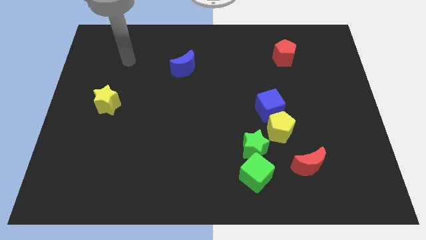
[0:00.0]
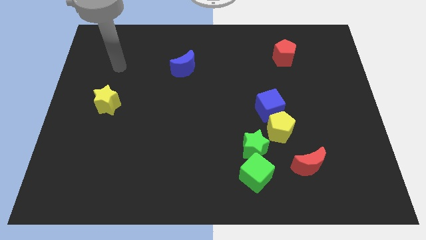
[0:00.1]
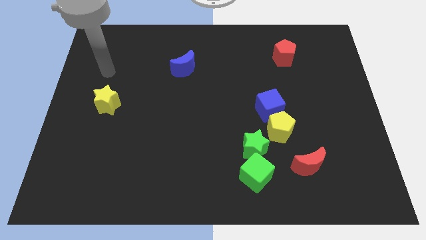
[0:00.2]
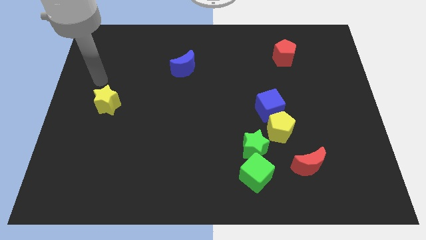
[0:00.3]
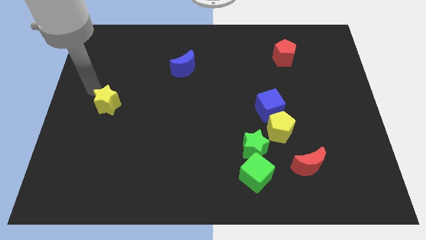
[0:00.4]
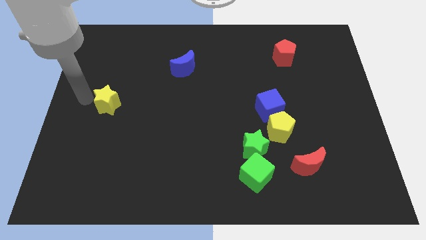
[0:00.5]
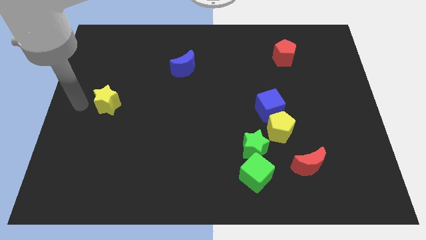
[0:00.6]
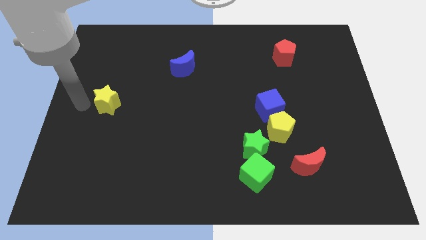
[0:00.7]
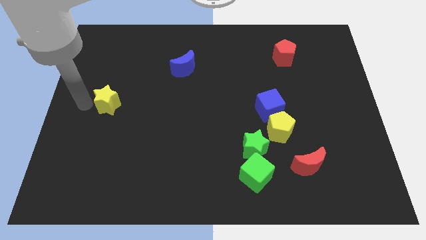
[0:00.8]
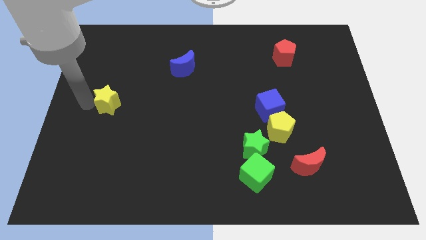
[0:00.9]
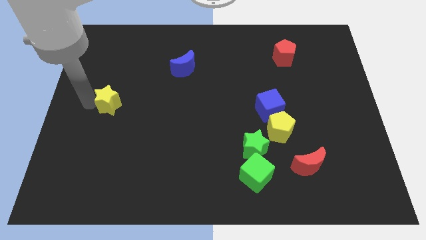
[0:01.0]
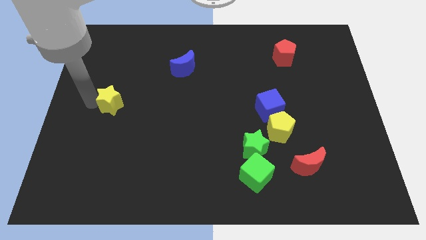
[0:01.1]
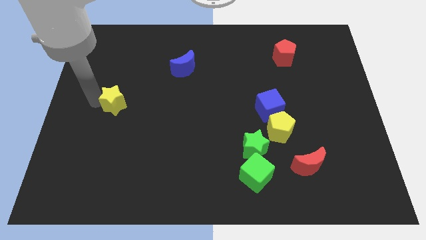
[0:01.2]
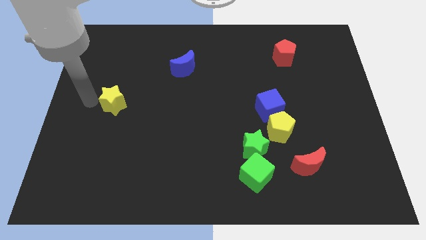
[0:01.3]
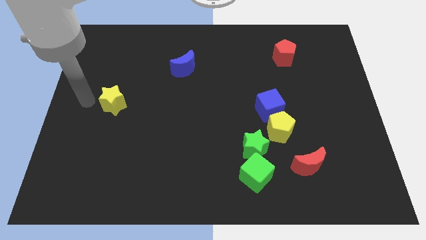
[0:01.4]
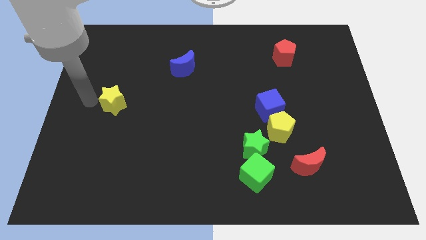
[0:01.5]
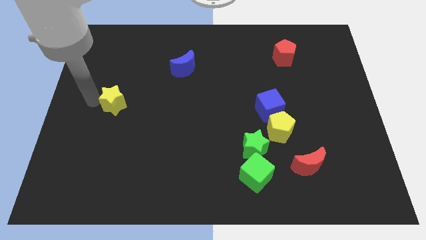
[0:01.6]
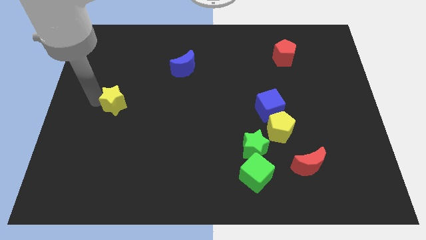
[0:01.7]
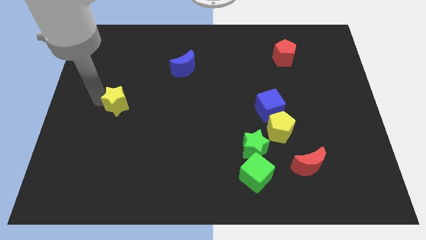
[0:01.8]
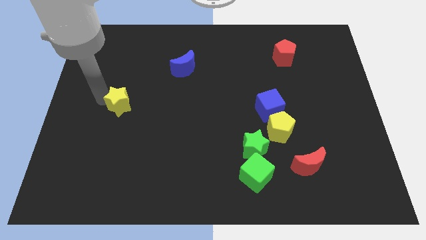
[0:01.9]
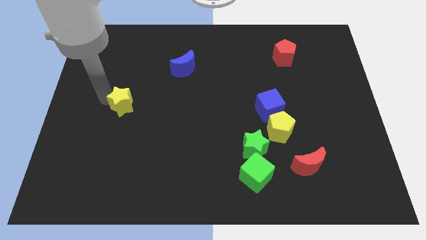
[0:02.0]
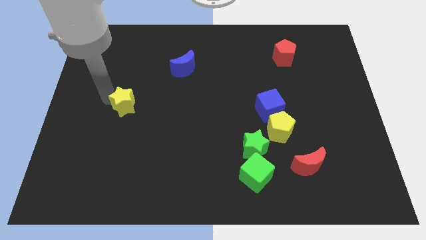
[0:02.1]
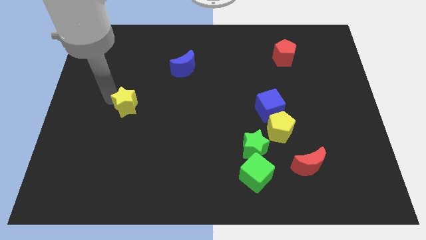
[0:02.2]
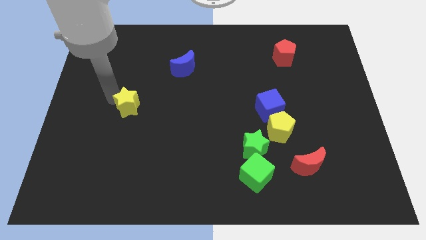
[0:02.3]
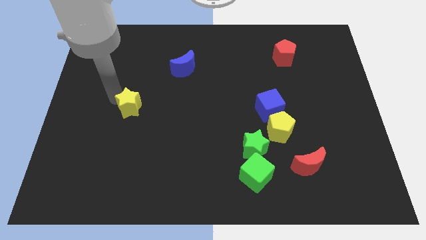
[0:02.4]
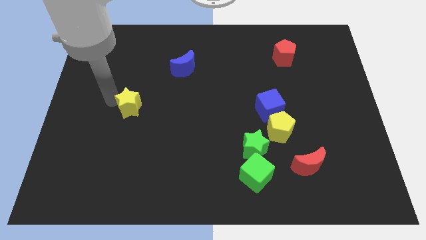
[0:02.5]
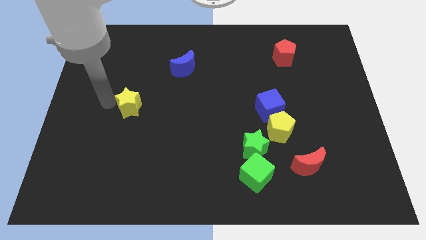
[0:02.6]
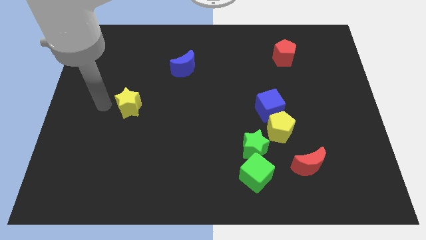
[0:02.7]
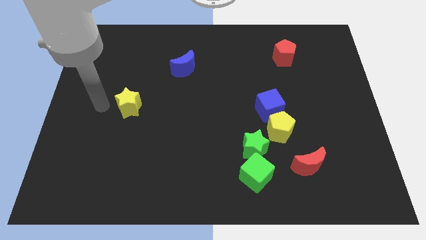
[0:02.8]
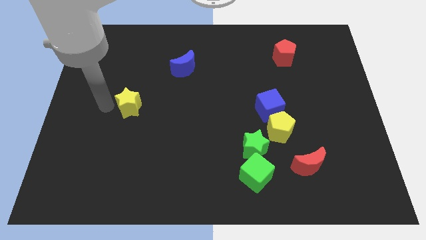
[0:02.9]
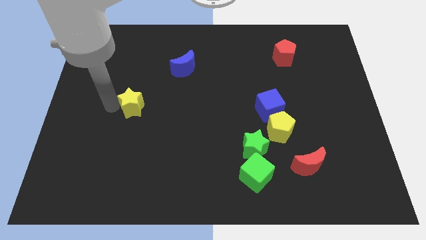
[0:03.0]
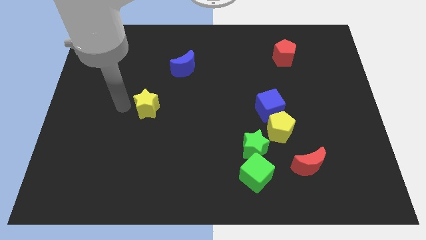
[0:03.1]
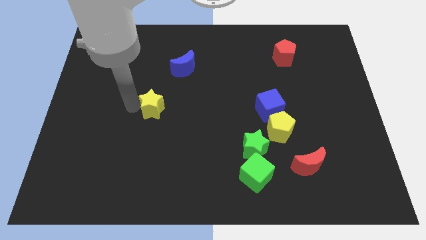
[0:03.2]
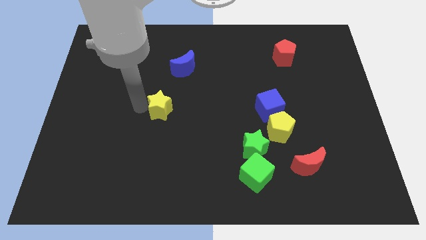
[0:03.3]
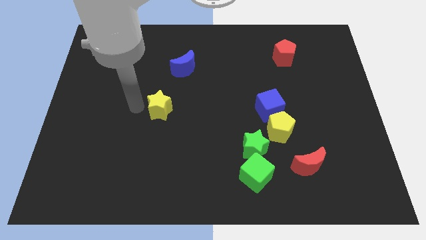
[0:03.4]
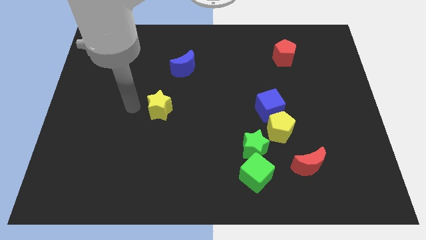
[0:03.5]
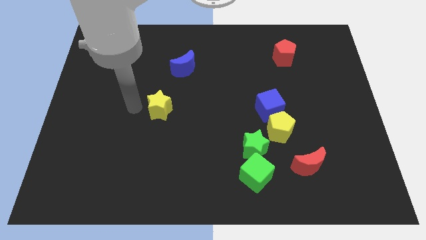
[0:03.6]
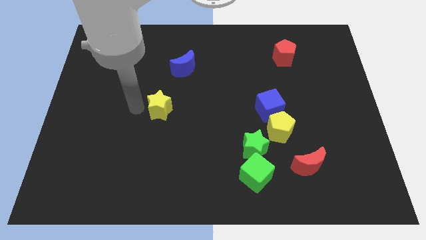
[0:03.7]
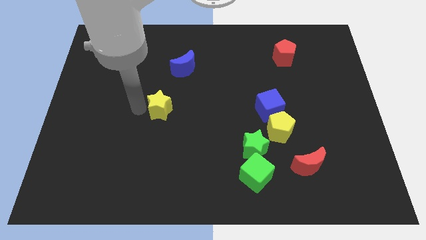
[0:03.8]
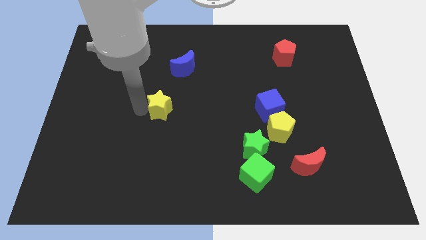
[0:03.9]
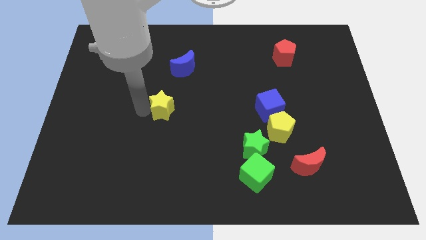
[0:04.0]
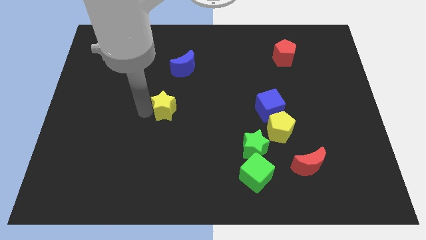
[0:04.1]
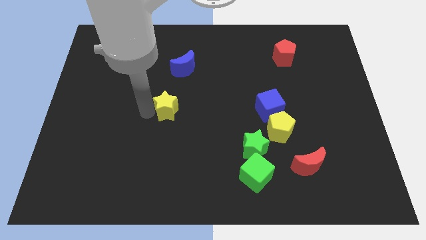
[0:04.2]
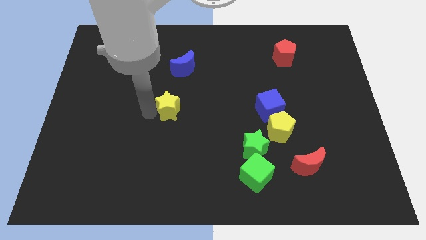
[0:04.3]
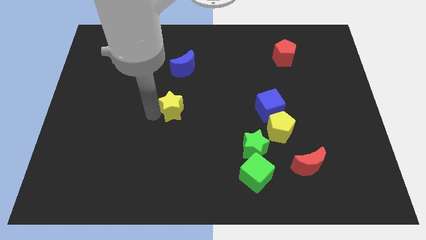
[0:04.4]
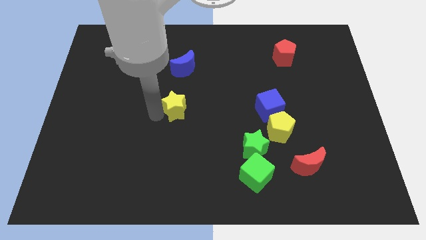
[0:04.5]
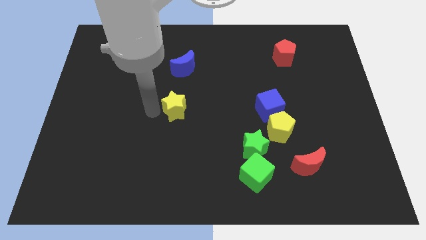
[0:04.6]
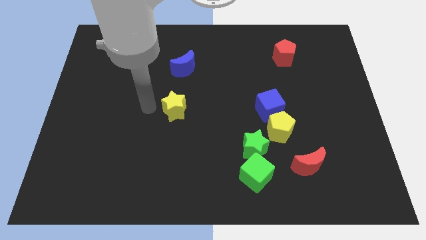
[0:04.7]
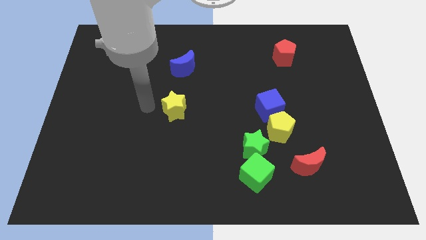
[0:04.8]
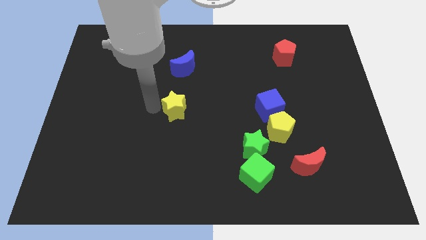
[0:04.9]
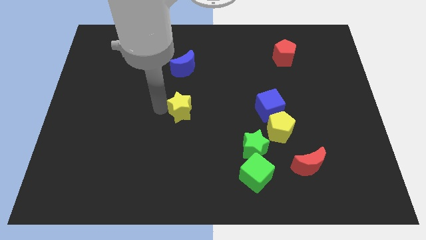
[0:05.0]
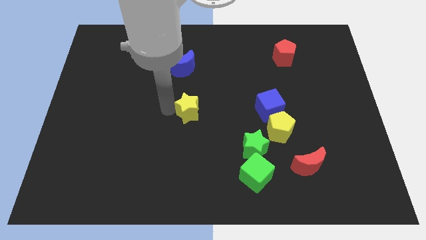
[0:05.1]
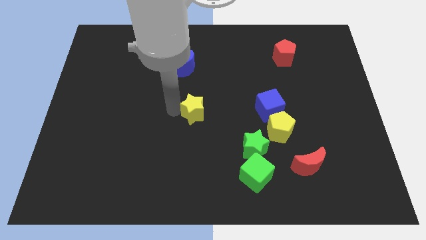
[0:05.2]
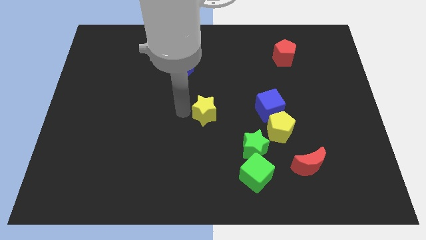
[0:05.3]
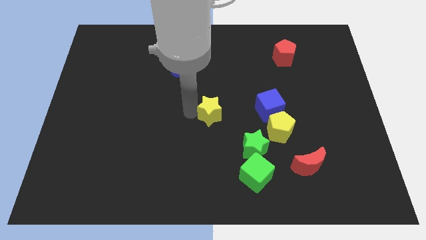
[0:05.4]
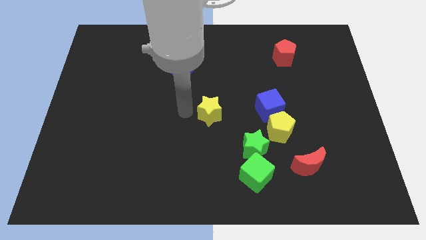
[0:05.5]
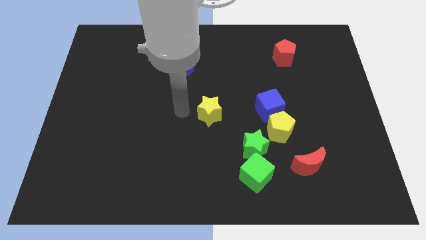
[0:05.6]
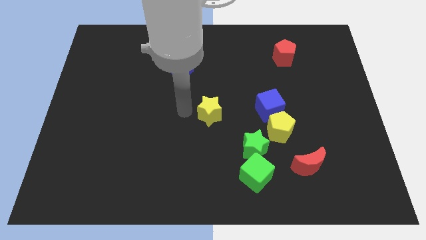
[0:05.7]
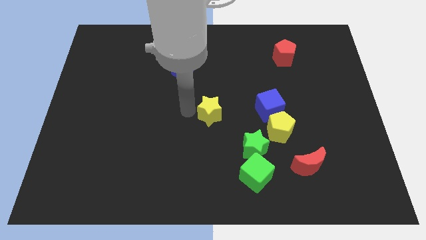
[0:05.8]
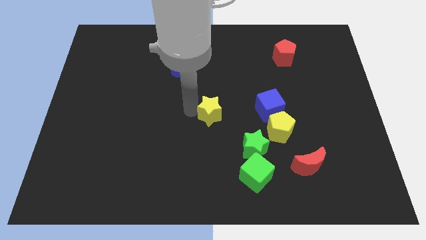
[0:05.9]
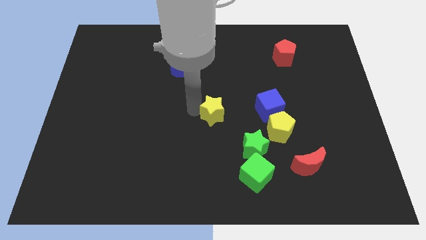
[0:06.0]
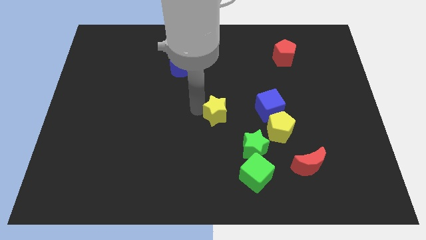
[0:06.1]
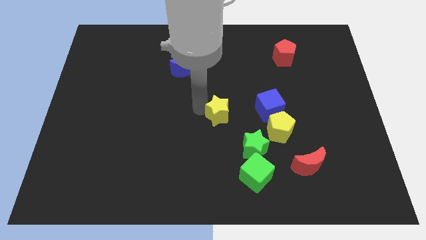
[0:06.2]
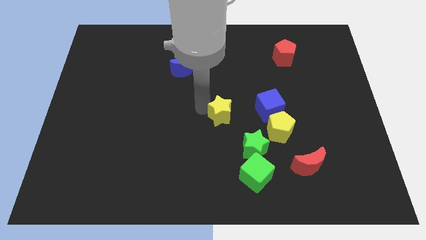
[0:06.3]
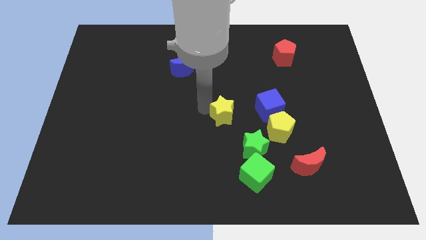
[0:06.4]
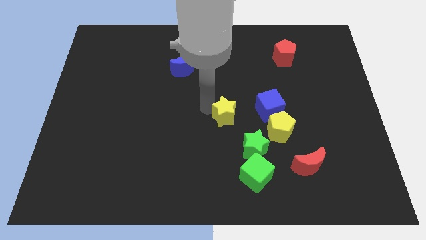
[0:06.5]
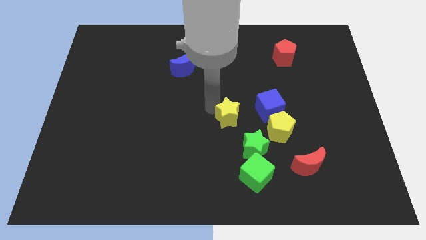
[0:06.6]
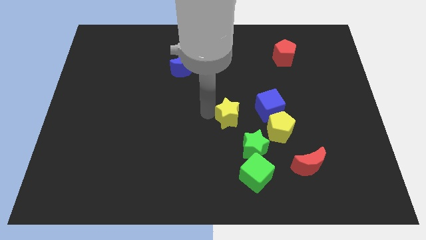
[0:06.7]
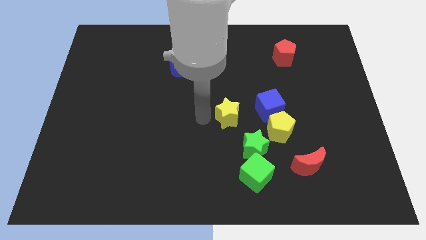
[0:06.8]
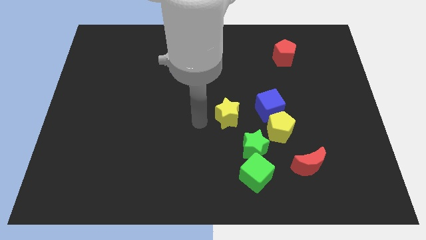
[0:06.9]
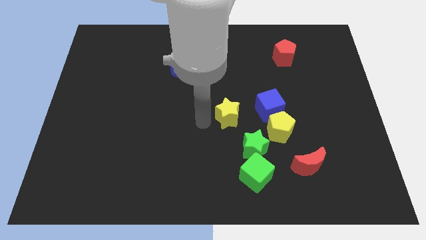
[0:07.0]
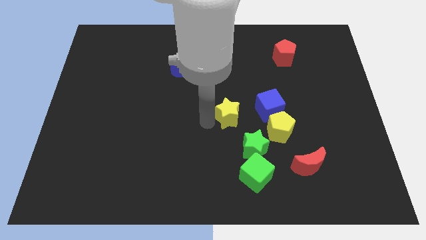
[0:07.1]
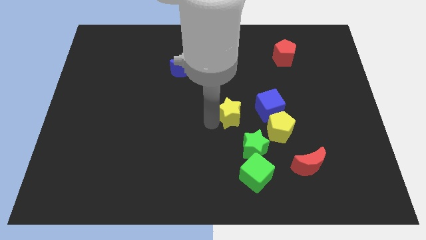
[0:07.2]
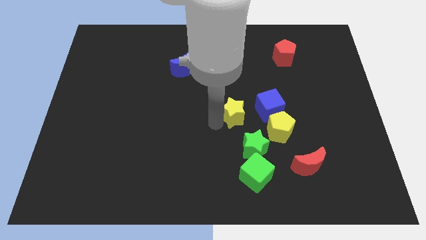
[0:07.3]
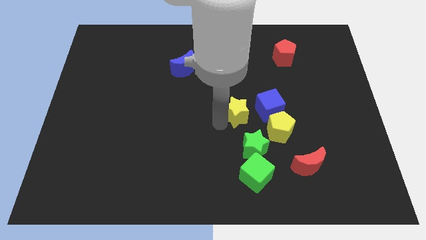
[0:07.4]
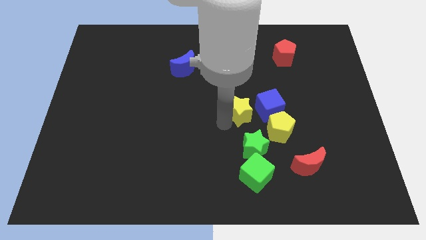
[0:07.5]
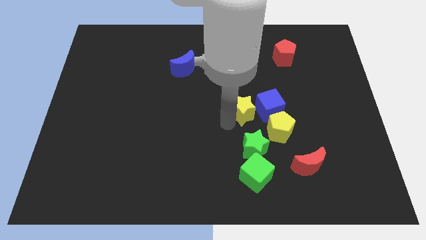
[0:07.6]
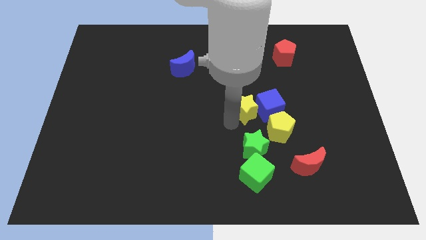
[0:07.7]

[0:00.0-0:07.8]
move the yellow star close to the blue cube
